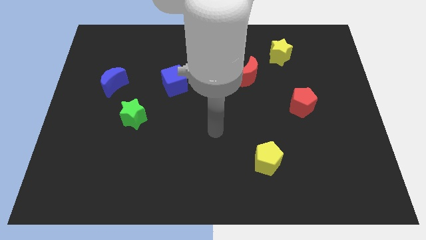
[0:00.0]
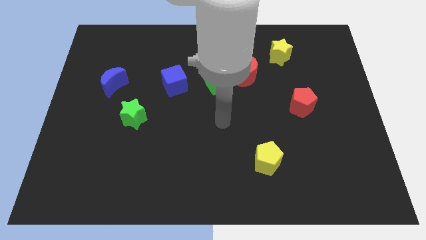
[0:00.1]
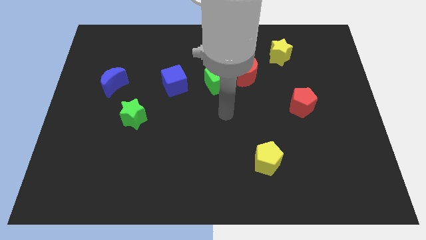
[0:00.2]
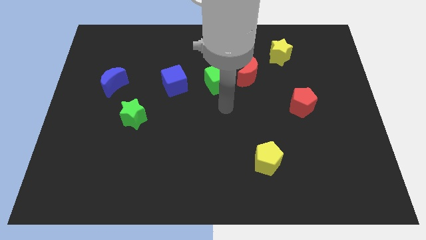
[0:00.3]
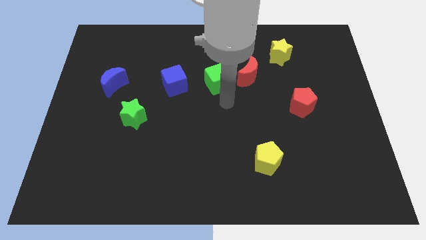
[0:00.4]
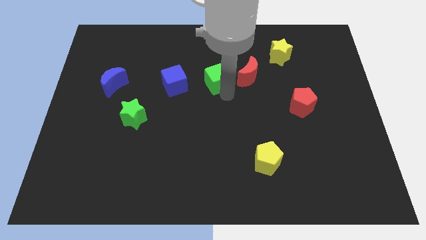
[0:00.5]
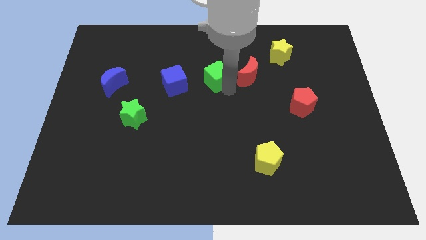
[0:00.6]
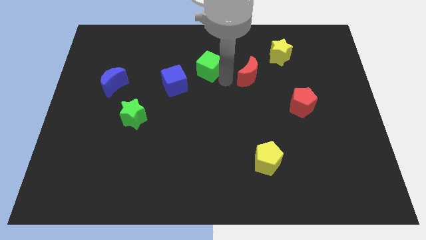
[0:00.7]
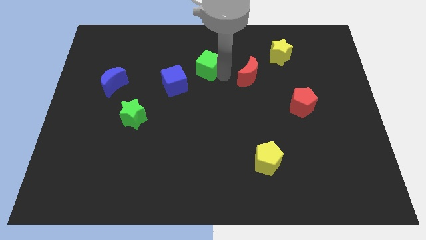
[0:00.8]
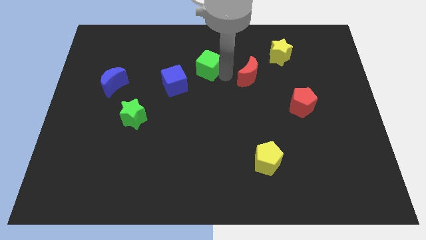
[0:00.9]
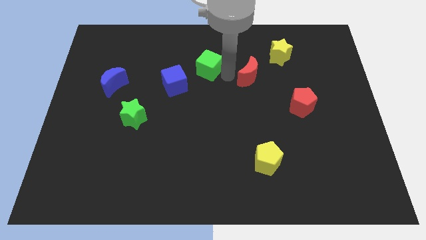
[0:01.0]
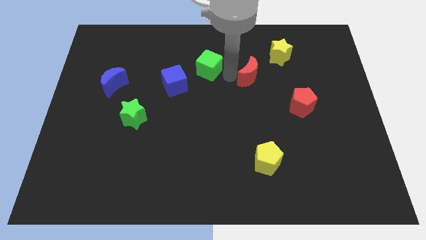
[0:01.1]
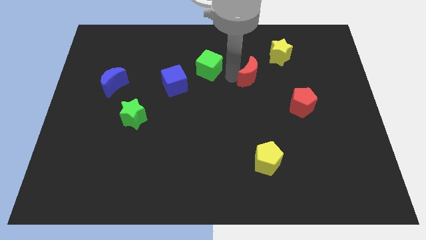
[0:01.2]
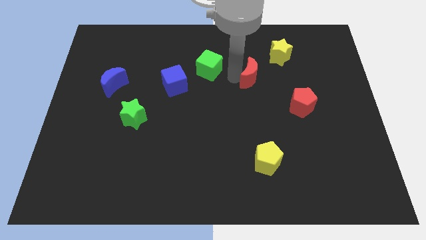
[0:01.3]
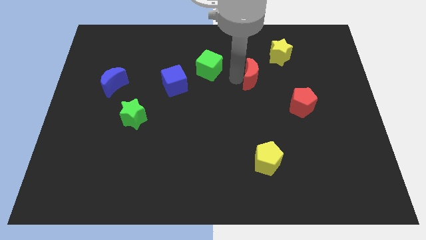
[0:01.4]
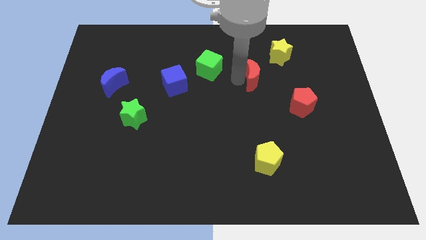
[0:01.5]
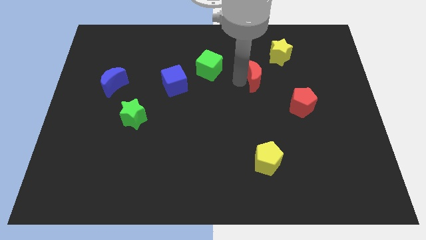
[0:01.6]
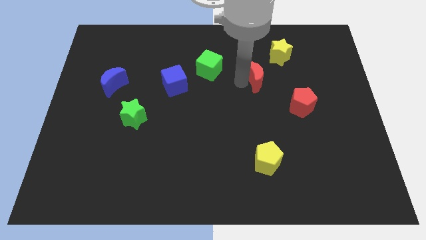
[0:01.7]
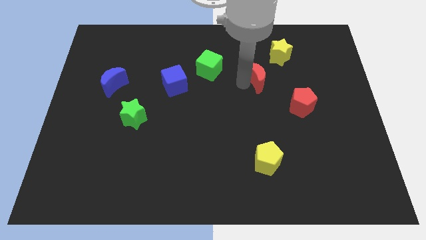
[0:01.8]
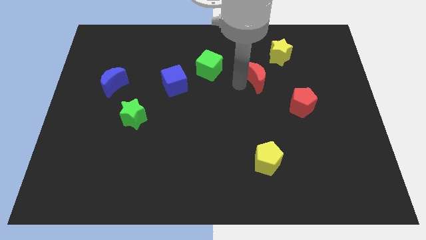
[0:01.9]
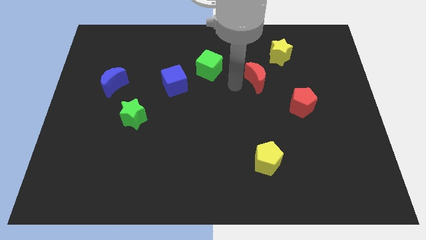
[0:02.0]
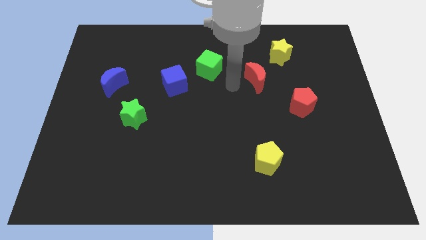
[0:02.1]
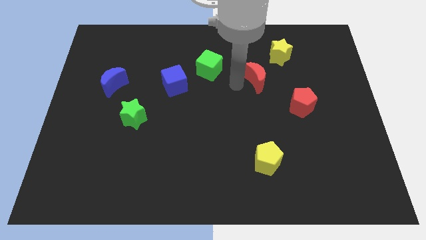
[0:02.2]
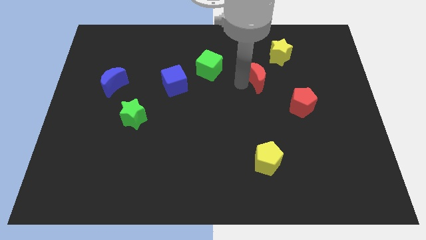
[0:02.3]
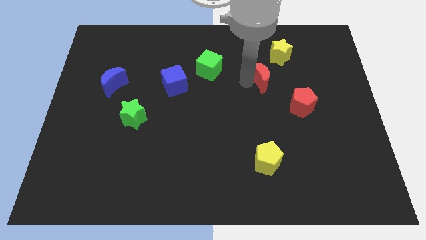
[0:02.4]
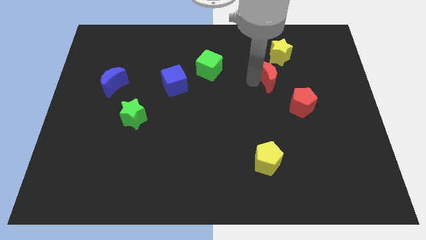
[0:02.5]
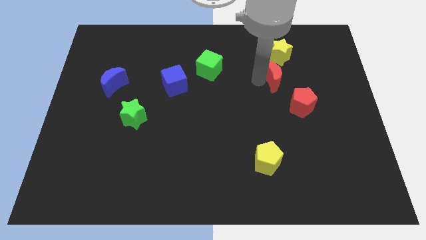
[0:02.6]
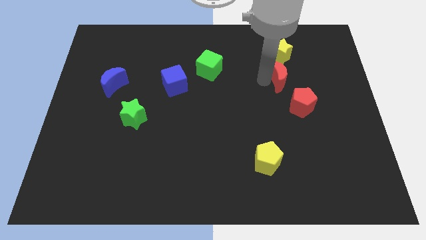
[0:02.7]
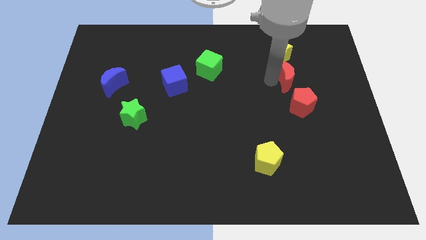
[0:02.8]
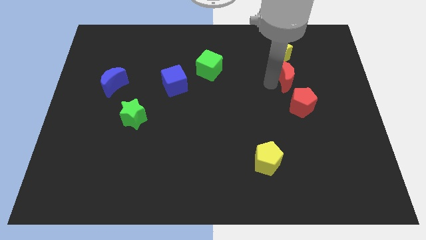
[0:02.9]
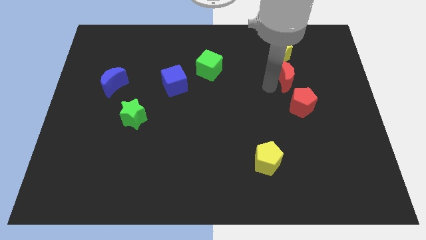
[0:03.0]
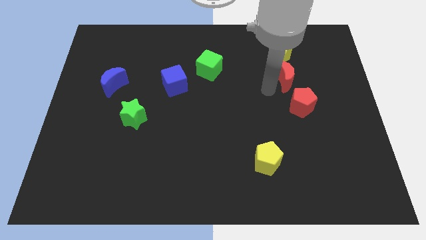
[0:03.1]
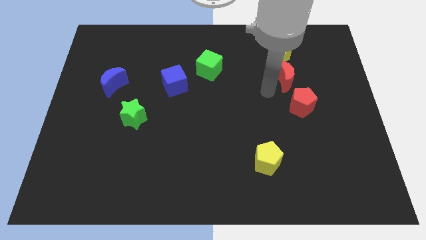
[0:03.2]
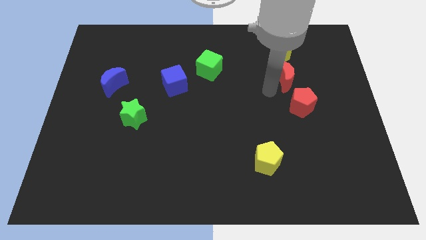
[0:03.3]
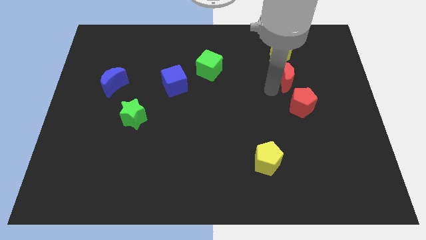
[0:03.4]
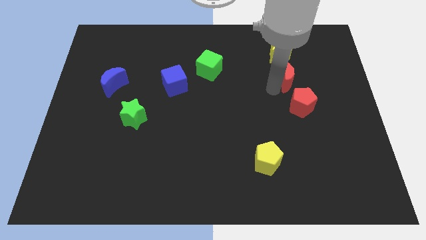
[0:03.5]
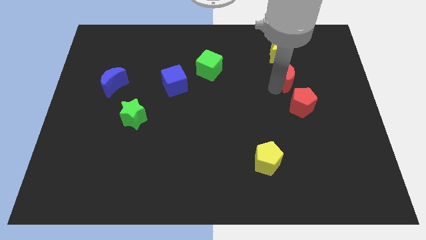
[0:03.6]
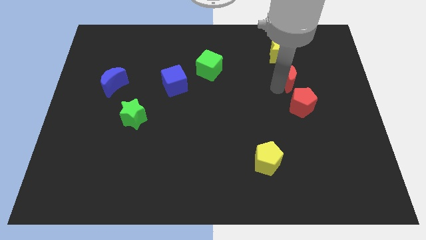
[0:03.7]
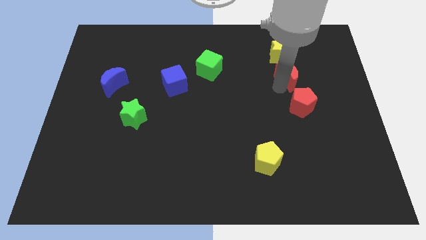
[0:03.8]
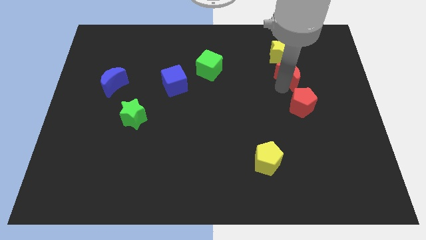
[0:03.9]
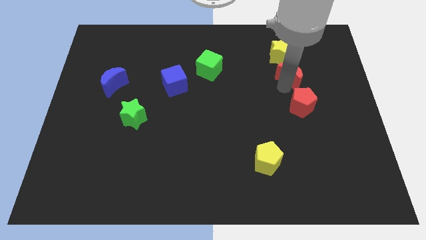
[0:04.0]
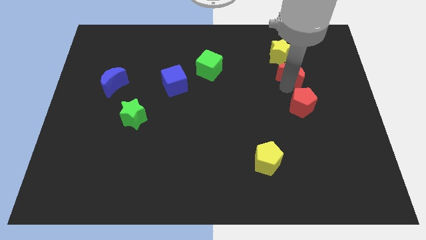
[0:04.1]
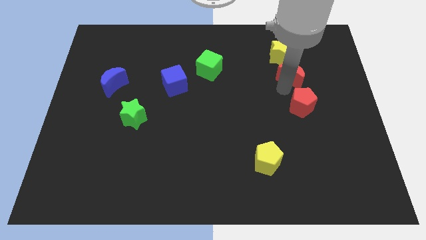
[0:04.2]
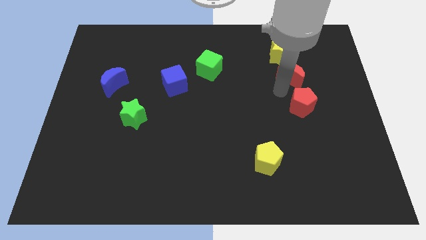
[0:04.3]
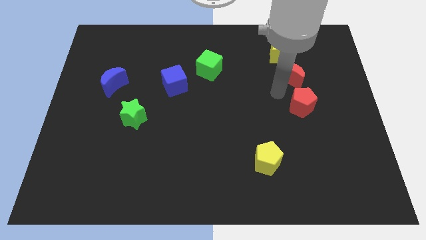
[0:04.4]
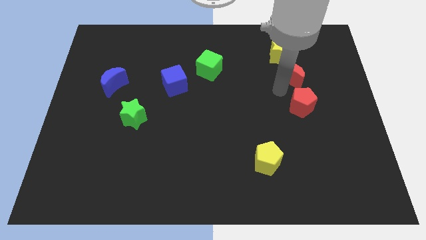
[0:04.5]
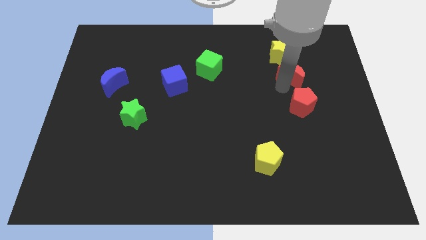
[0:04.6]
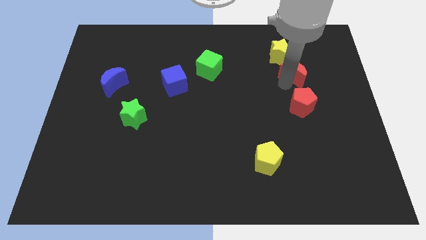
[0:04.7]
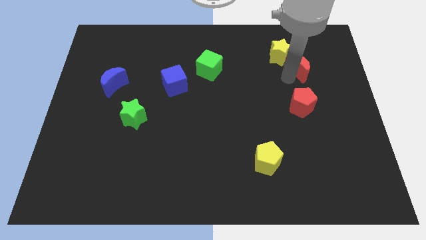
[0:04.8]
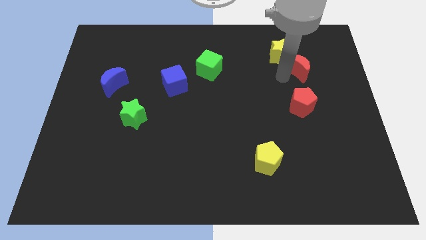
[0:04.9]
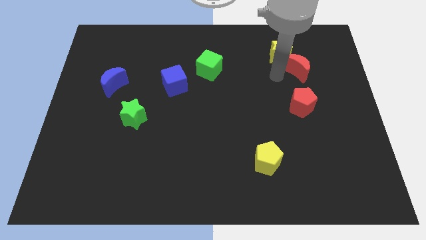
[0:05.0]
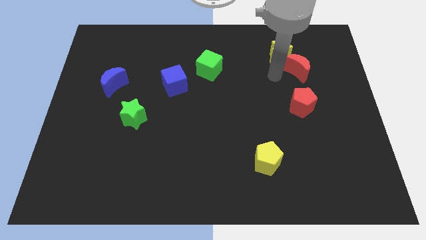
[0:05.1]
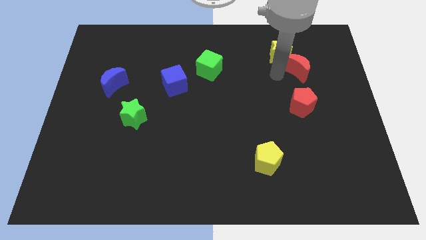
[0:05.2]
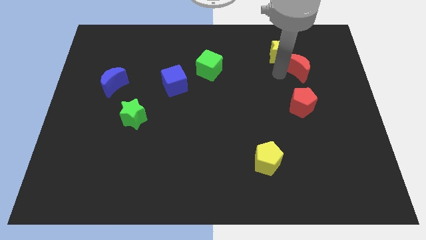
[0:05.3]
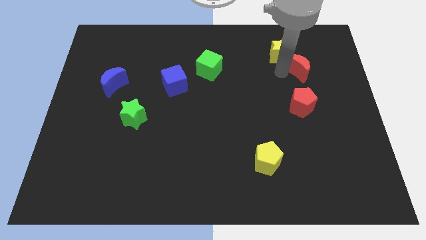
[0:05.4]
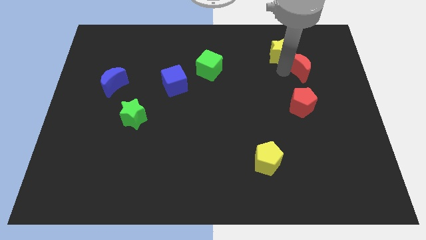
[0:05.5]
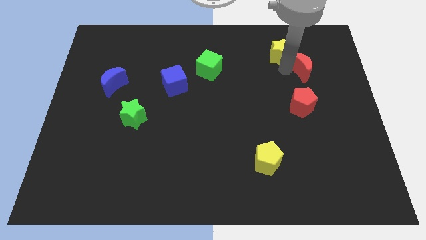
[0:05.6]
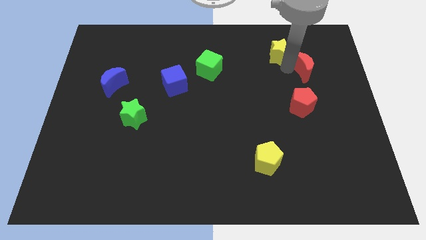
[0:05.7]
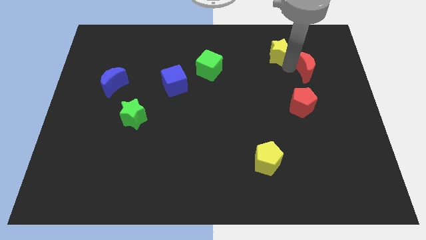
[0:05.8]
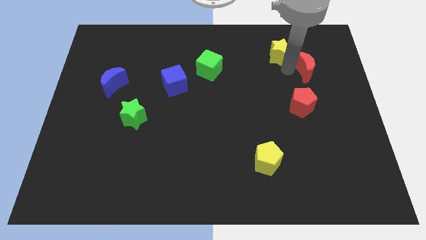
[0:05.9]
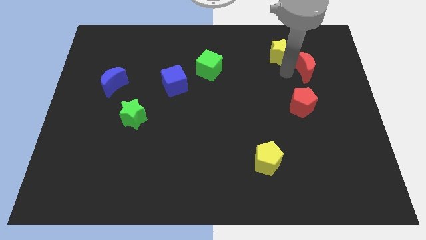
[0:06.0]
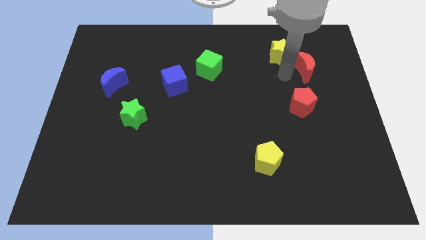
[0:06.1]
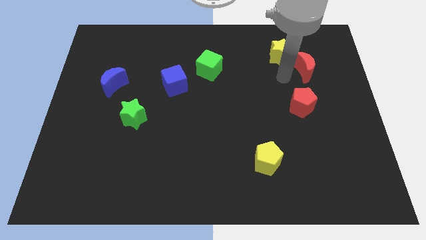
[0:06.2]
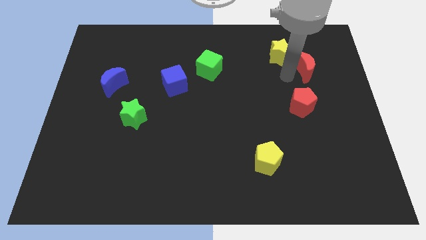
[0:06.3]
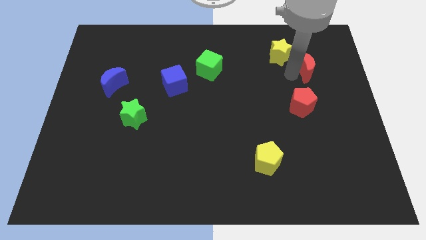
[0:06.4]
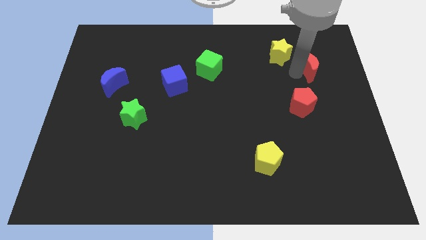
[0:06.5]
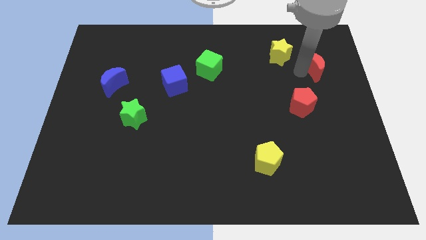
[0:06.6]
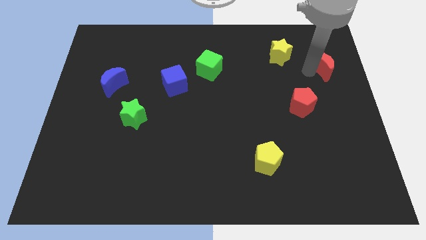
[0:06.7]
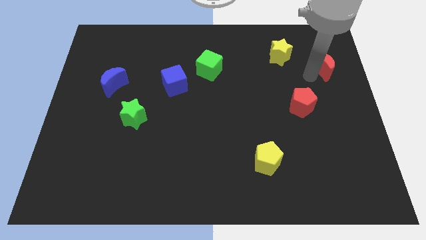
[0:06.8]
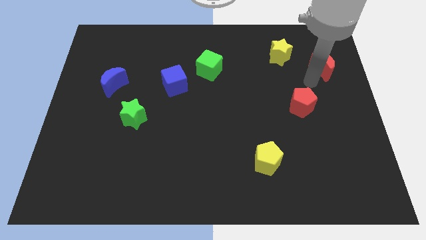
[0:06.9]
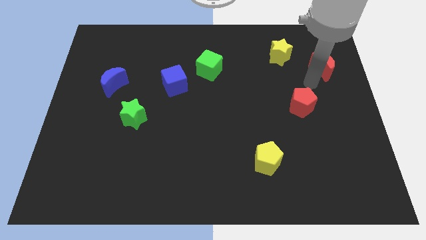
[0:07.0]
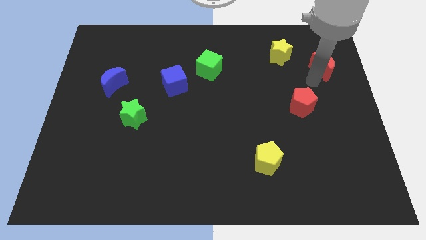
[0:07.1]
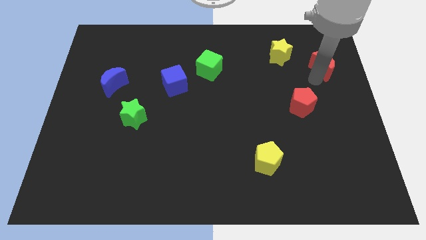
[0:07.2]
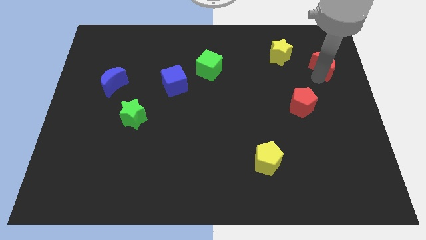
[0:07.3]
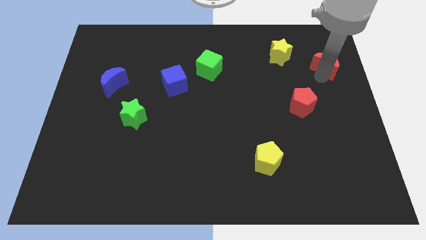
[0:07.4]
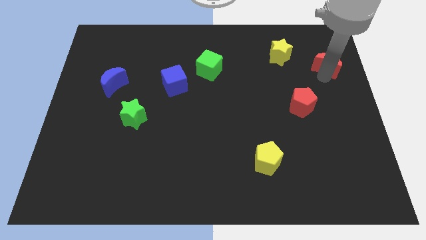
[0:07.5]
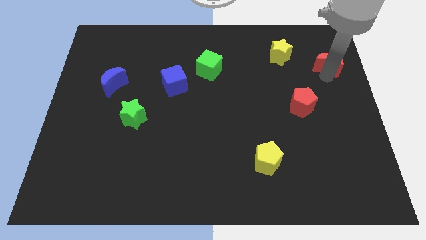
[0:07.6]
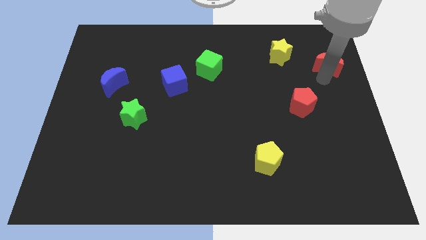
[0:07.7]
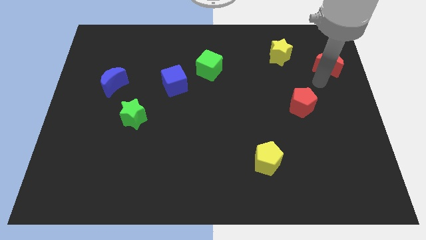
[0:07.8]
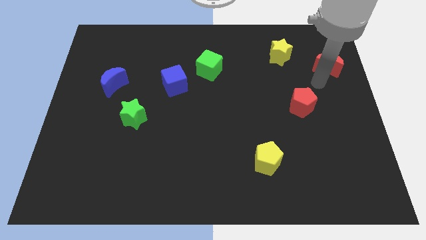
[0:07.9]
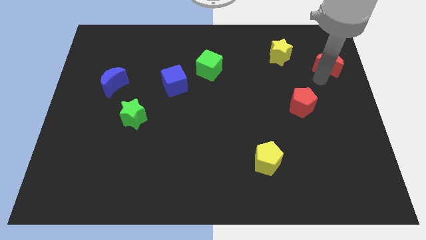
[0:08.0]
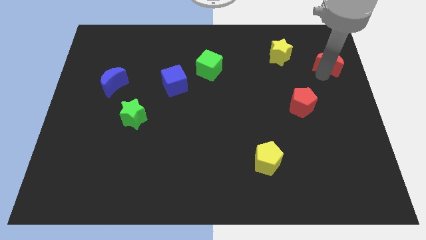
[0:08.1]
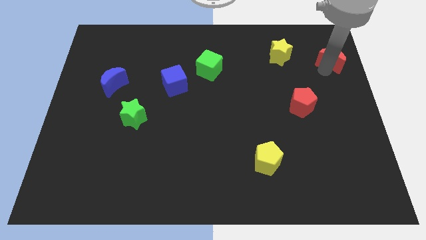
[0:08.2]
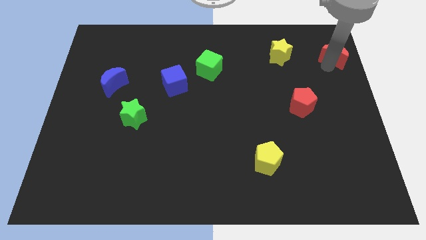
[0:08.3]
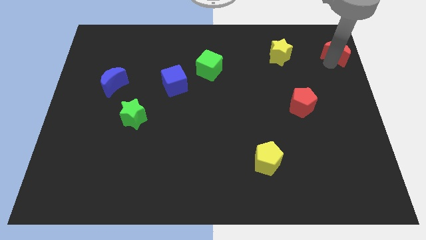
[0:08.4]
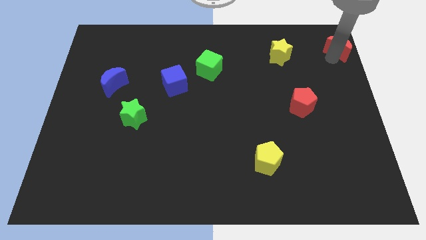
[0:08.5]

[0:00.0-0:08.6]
slide the red moon to the top right of the board
